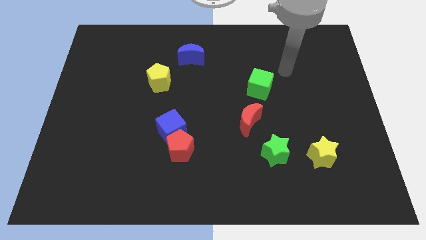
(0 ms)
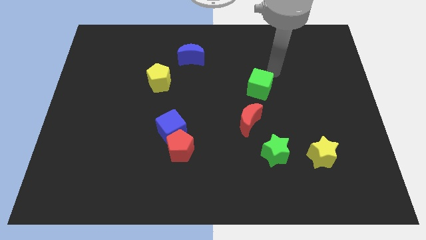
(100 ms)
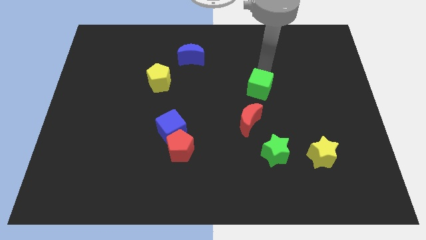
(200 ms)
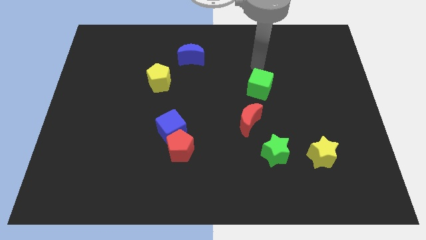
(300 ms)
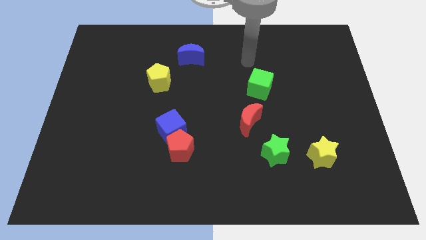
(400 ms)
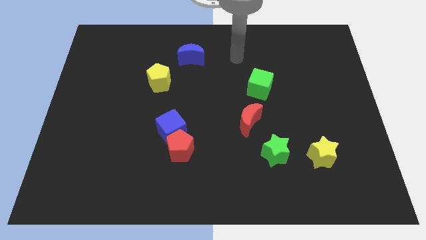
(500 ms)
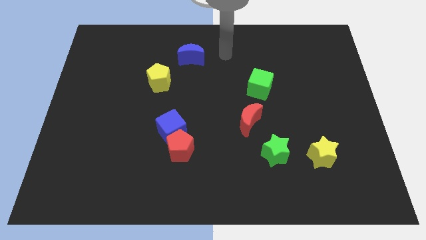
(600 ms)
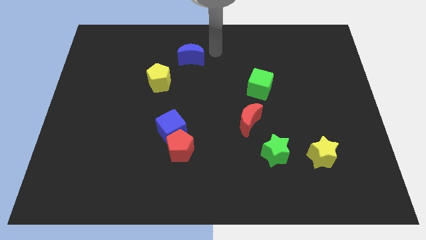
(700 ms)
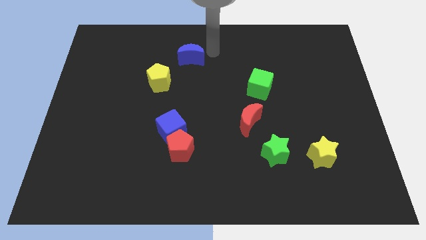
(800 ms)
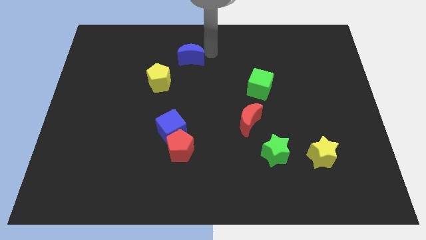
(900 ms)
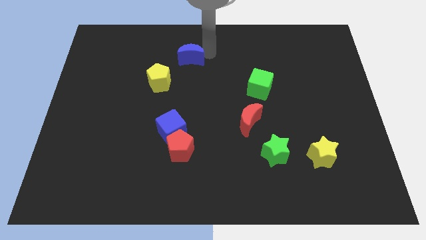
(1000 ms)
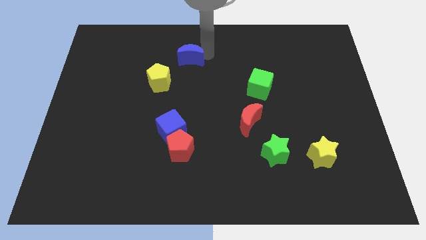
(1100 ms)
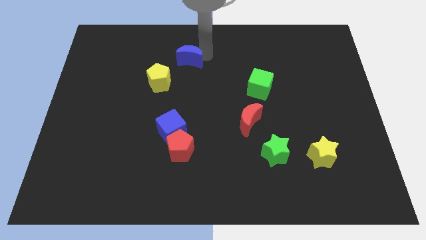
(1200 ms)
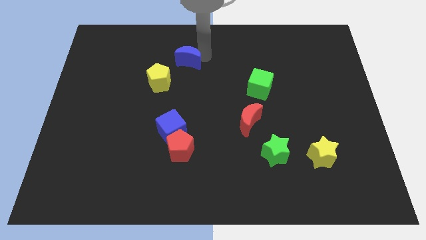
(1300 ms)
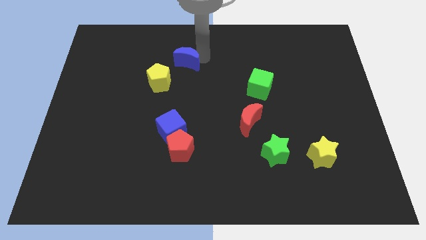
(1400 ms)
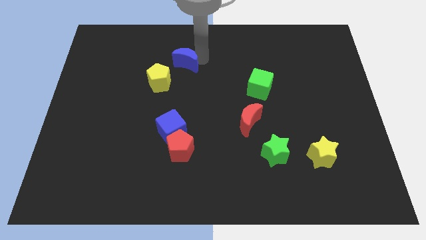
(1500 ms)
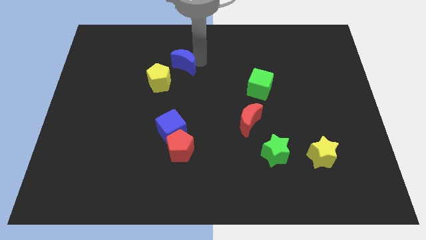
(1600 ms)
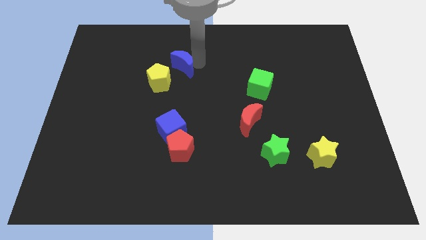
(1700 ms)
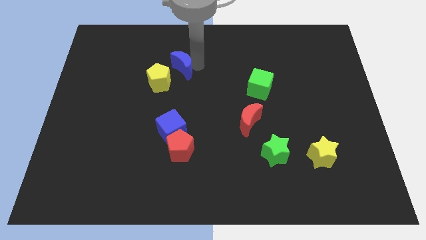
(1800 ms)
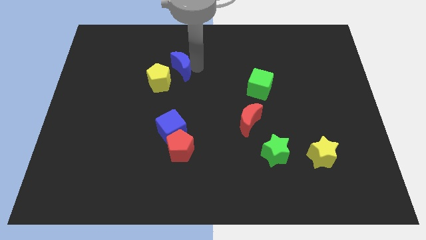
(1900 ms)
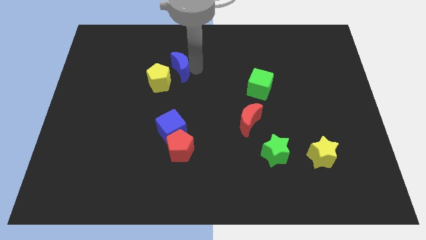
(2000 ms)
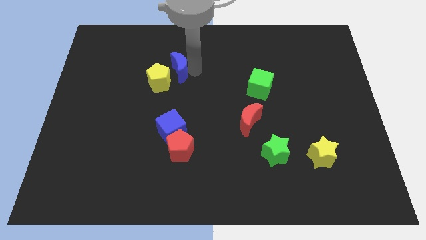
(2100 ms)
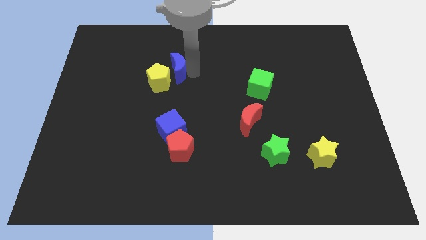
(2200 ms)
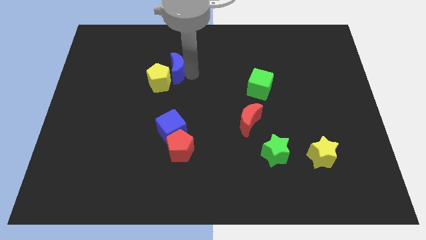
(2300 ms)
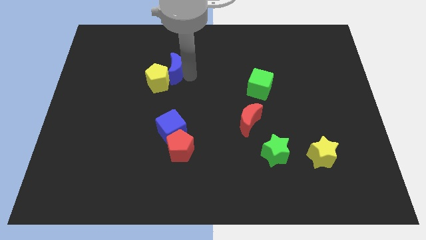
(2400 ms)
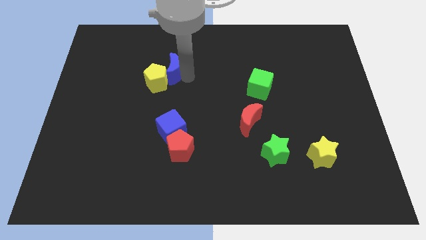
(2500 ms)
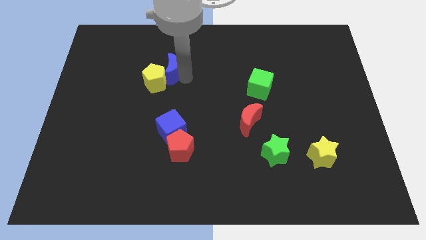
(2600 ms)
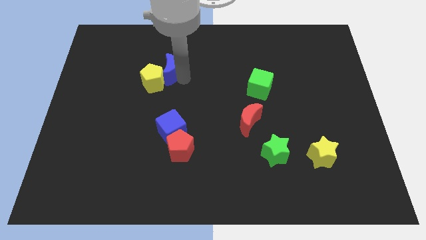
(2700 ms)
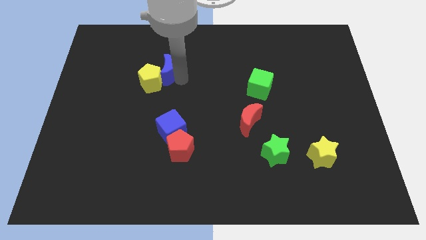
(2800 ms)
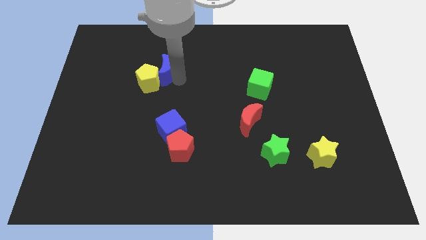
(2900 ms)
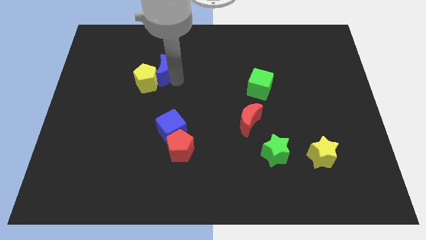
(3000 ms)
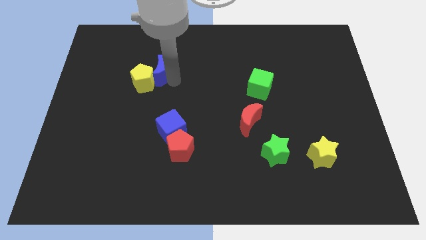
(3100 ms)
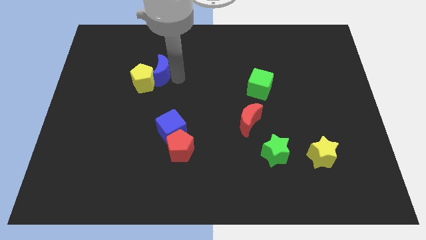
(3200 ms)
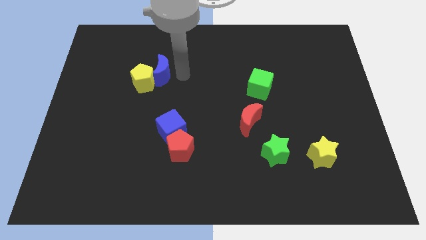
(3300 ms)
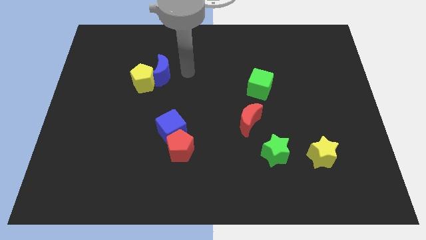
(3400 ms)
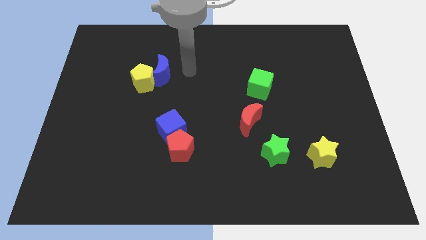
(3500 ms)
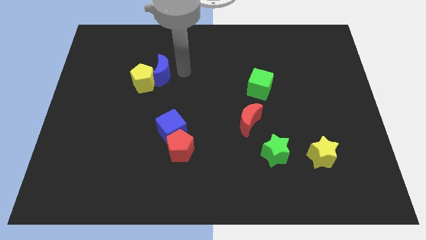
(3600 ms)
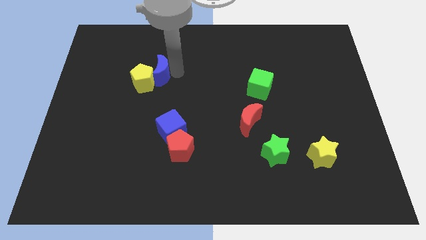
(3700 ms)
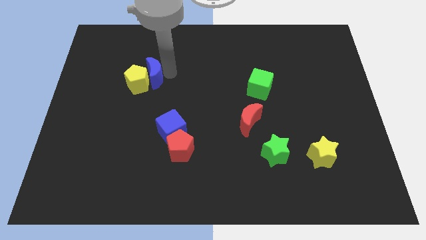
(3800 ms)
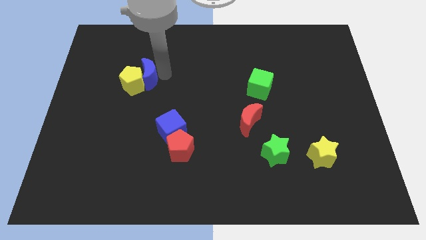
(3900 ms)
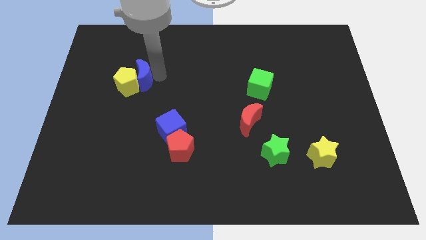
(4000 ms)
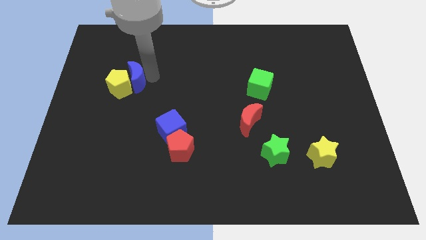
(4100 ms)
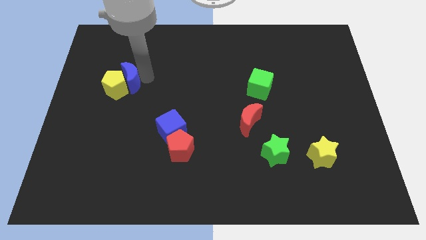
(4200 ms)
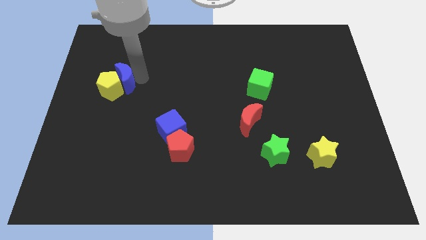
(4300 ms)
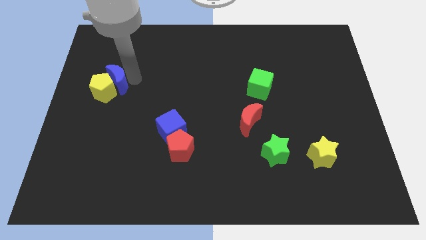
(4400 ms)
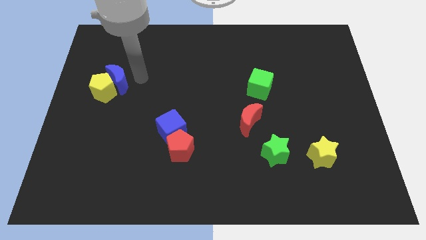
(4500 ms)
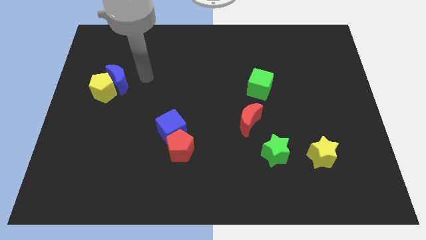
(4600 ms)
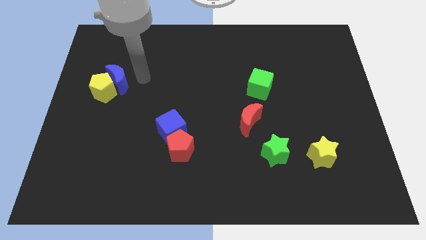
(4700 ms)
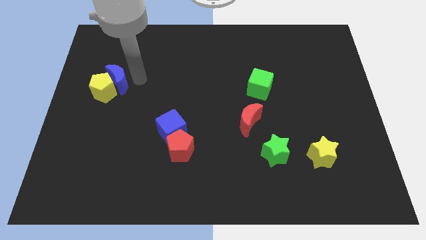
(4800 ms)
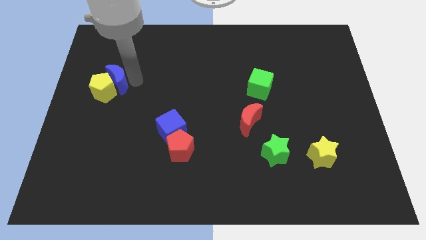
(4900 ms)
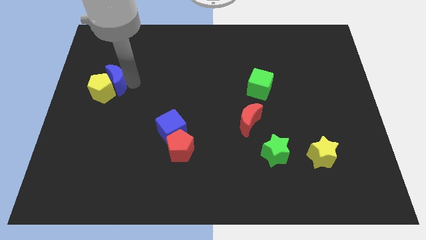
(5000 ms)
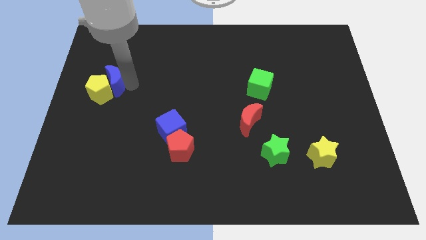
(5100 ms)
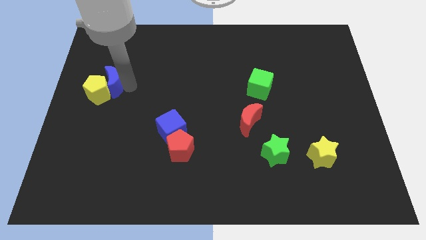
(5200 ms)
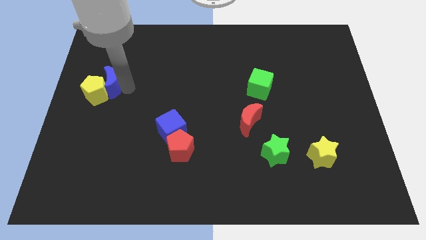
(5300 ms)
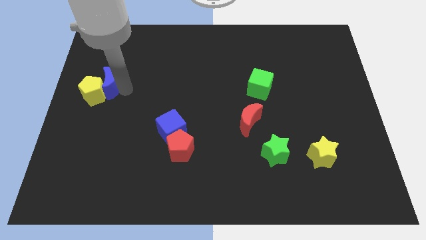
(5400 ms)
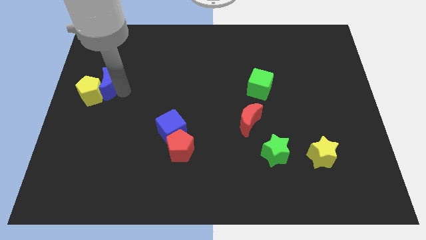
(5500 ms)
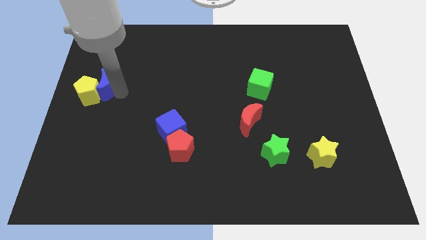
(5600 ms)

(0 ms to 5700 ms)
put the blue moon to the left side of the board

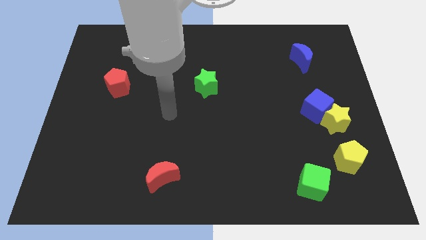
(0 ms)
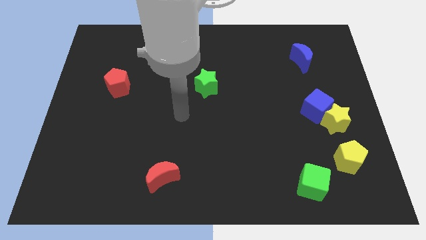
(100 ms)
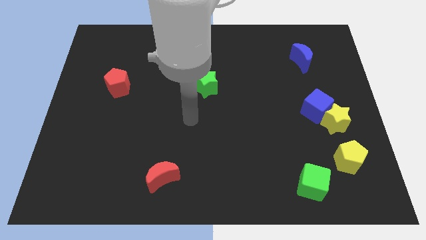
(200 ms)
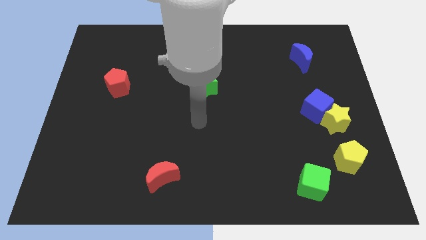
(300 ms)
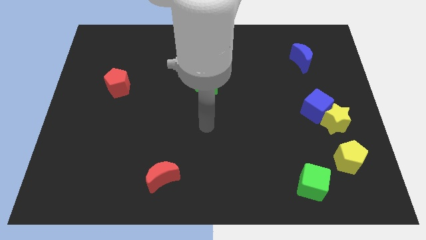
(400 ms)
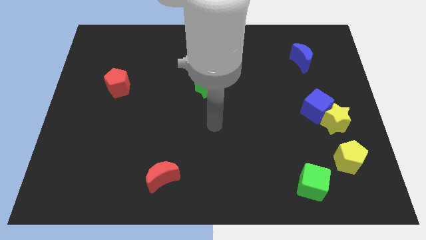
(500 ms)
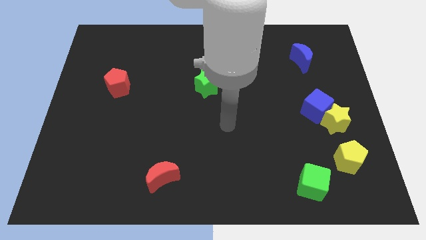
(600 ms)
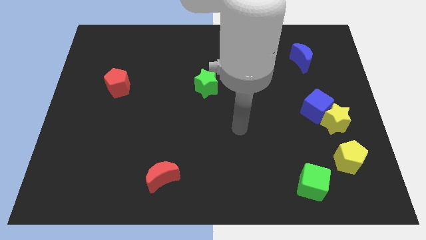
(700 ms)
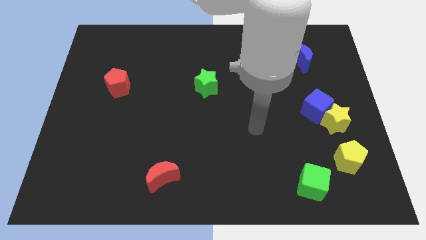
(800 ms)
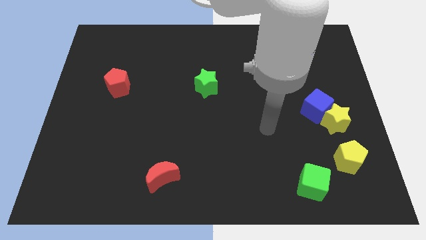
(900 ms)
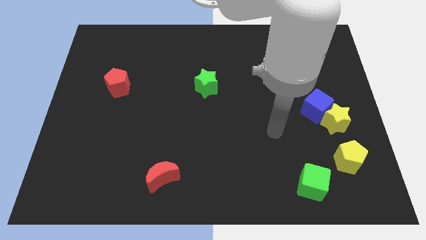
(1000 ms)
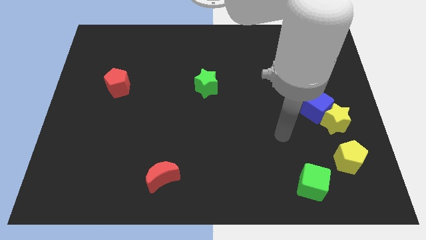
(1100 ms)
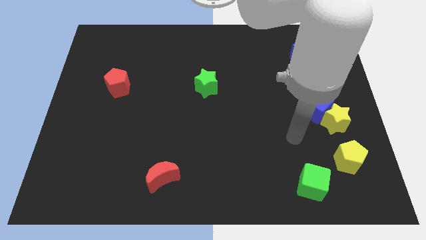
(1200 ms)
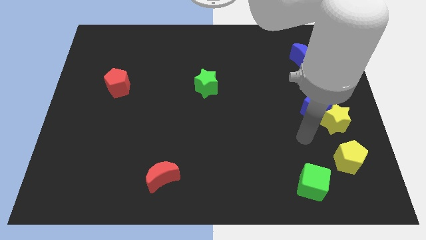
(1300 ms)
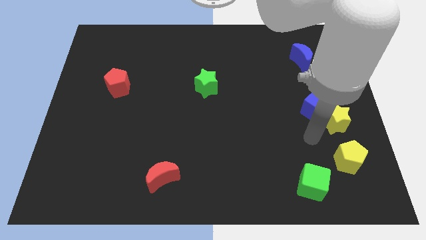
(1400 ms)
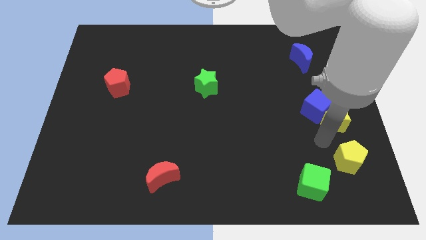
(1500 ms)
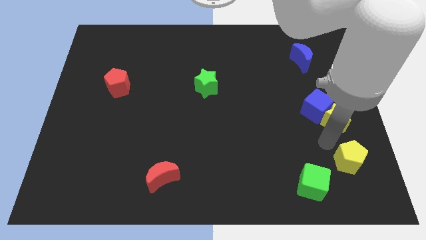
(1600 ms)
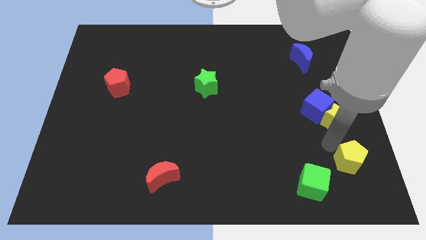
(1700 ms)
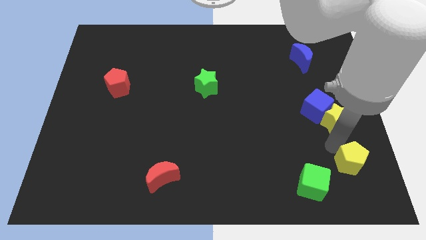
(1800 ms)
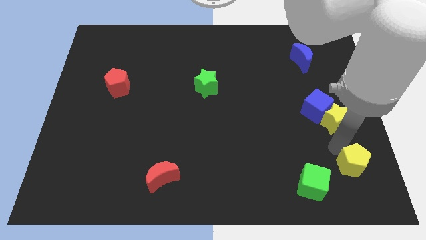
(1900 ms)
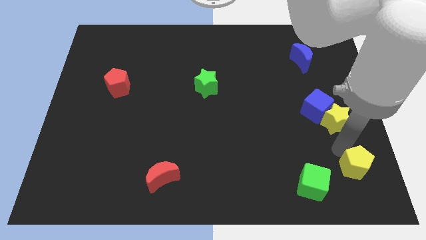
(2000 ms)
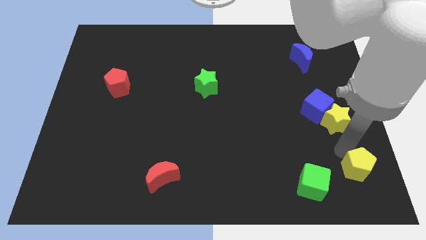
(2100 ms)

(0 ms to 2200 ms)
put the yellow pentagon to the bottom right
